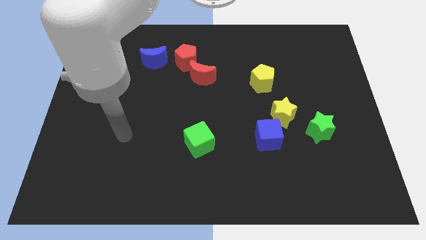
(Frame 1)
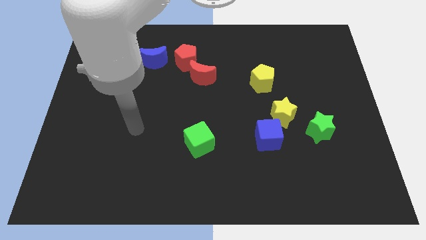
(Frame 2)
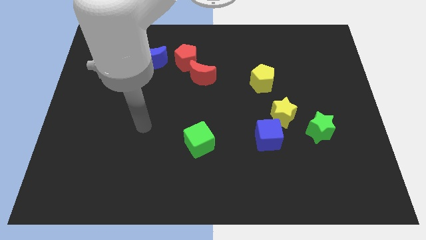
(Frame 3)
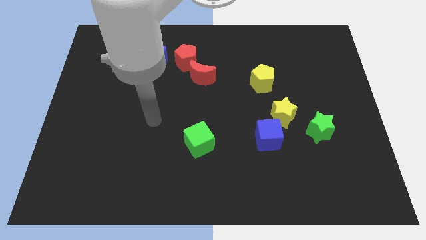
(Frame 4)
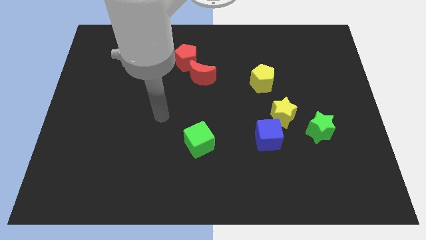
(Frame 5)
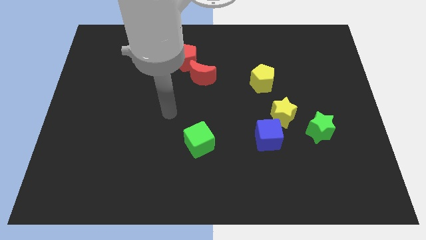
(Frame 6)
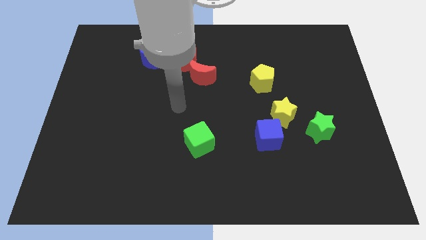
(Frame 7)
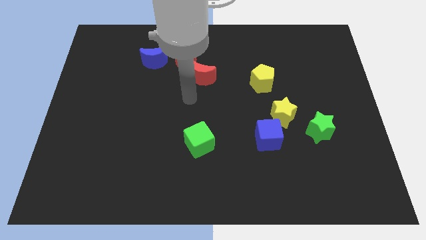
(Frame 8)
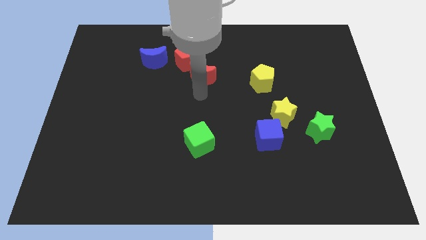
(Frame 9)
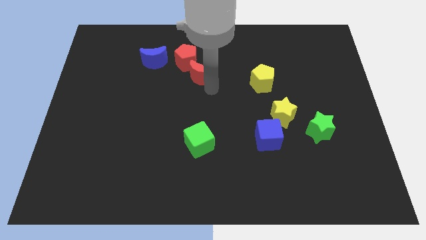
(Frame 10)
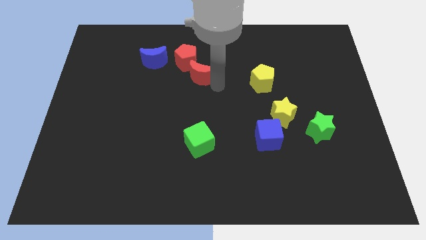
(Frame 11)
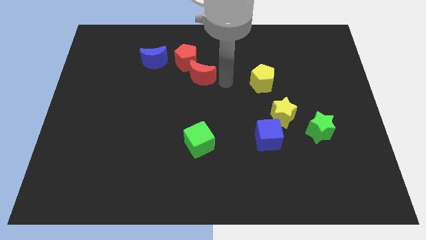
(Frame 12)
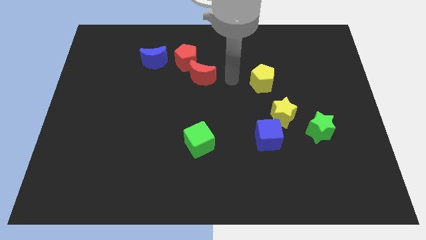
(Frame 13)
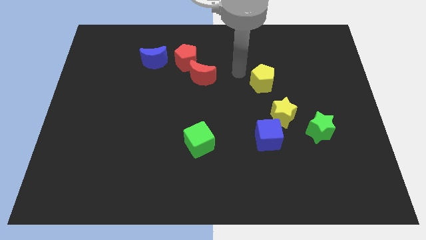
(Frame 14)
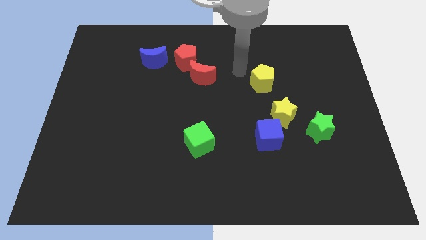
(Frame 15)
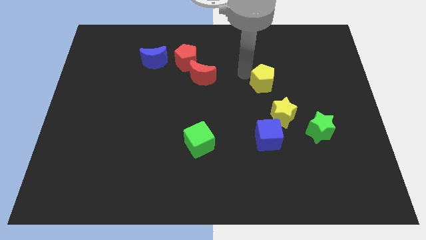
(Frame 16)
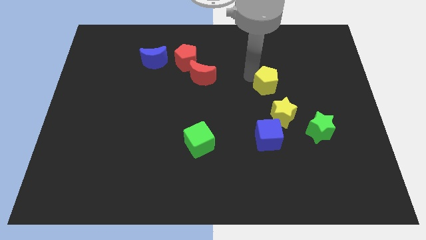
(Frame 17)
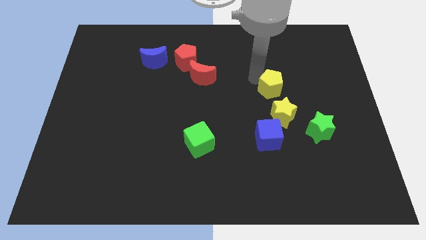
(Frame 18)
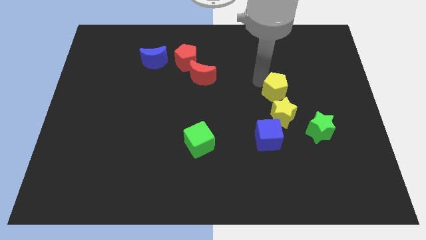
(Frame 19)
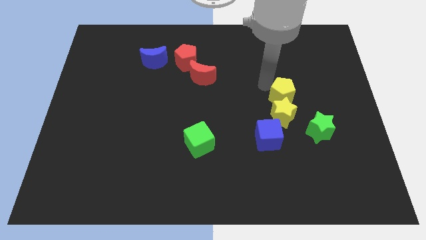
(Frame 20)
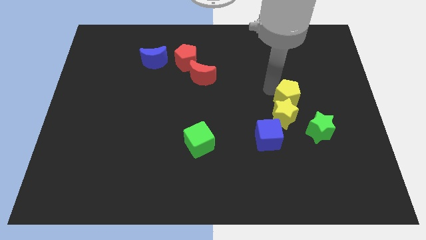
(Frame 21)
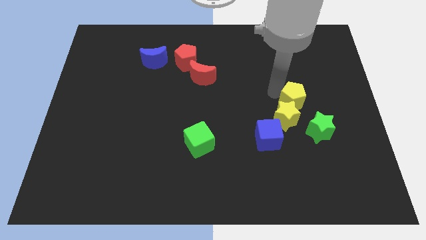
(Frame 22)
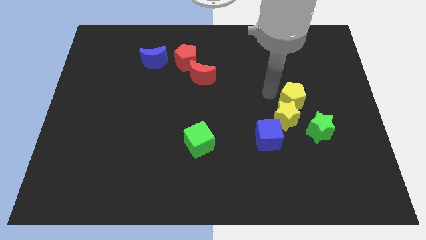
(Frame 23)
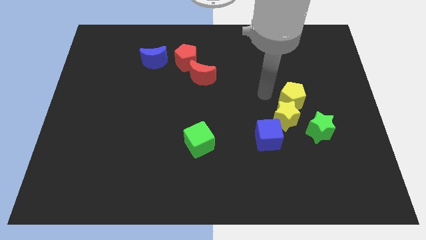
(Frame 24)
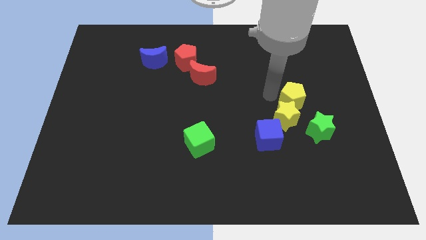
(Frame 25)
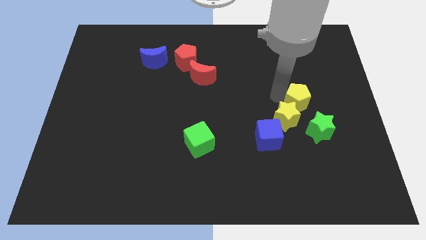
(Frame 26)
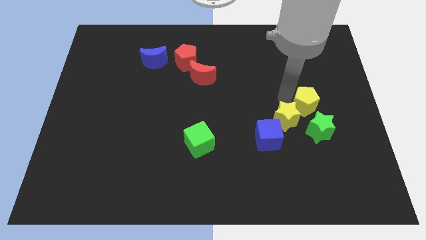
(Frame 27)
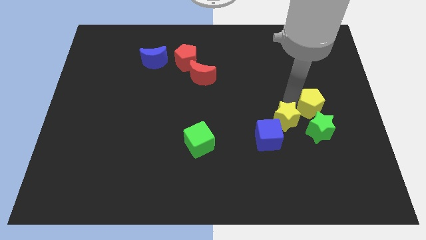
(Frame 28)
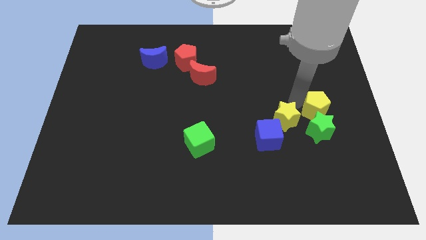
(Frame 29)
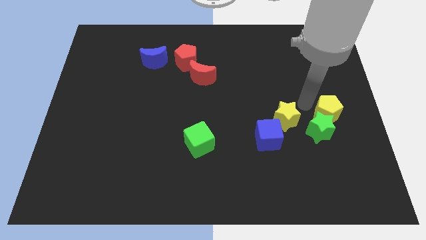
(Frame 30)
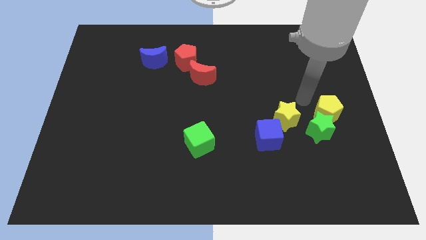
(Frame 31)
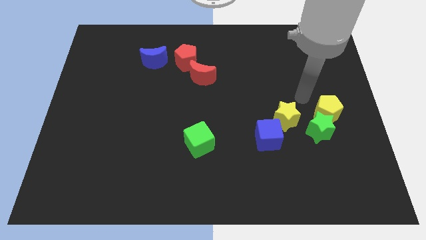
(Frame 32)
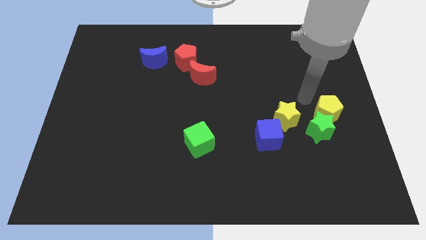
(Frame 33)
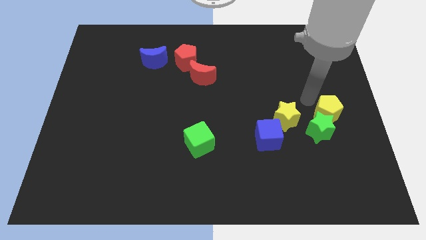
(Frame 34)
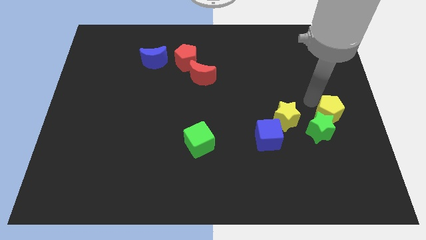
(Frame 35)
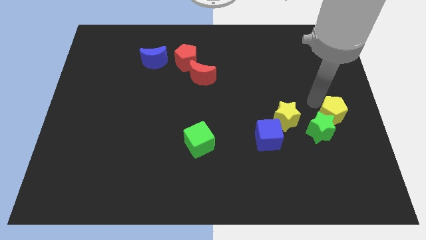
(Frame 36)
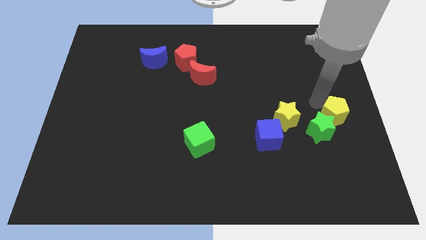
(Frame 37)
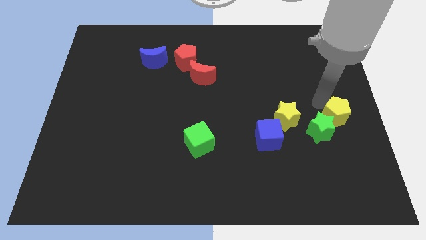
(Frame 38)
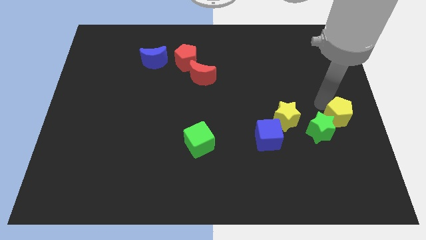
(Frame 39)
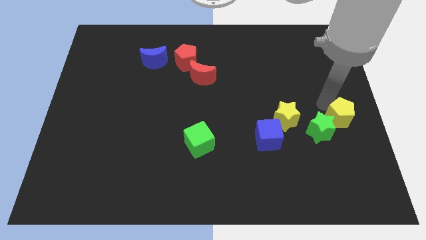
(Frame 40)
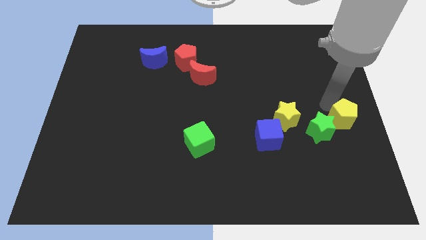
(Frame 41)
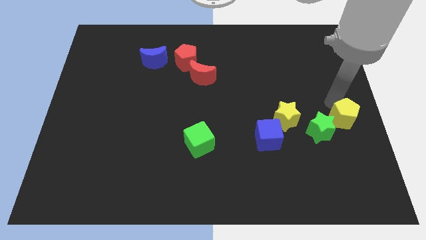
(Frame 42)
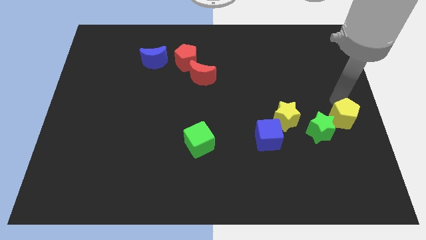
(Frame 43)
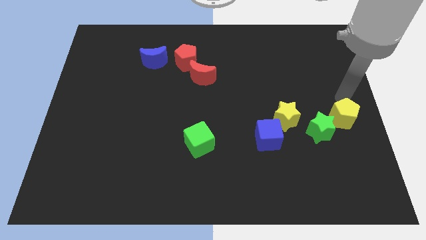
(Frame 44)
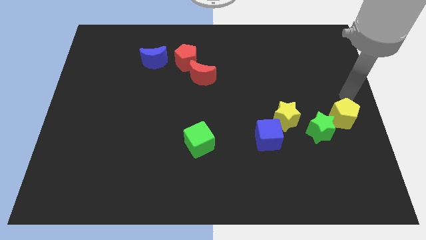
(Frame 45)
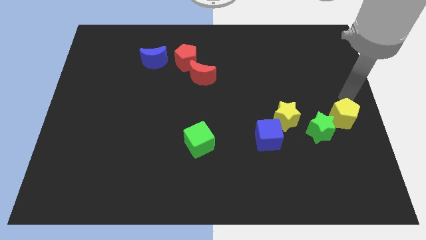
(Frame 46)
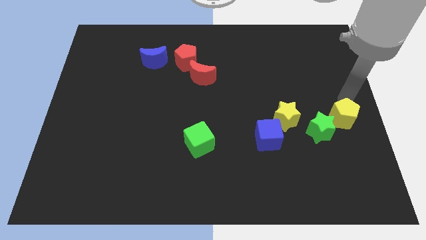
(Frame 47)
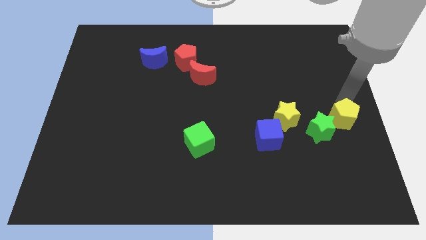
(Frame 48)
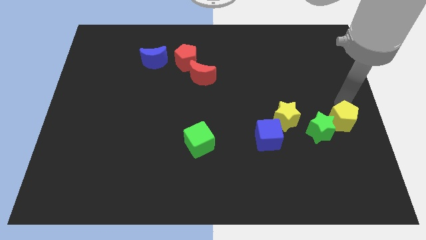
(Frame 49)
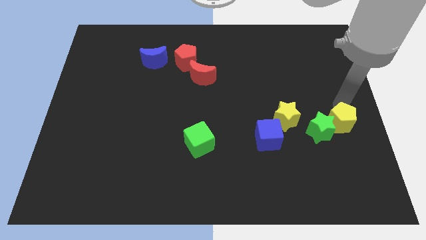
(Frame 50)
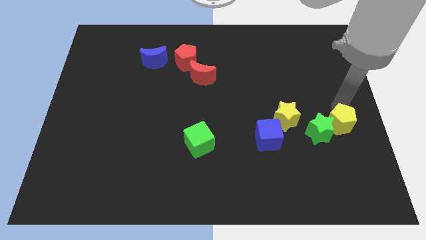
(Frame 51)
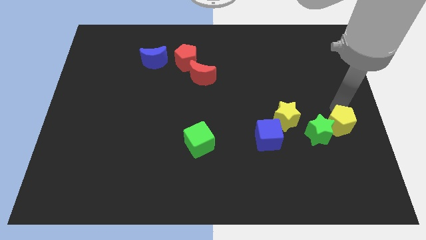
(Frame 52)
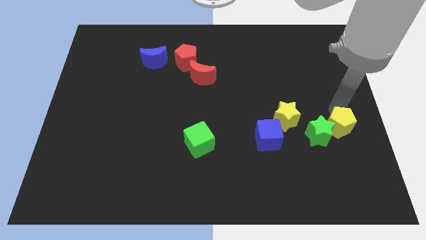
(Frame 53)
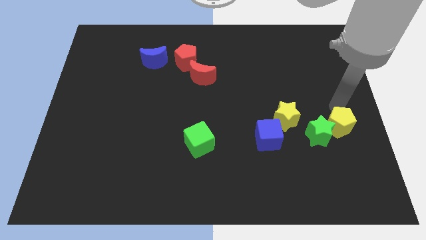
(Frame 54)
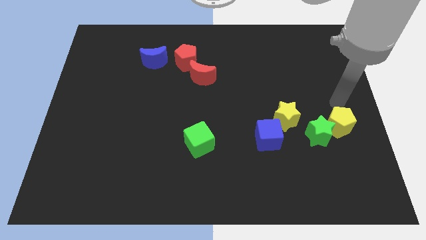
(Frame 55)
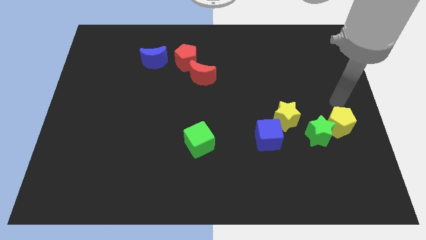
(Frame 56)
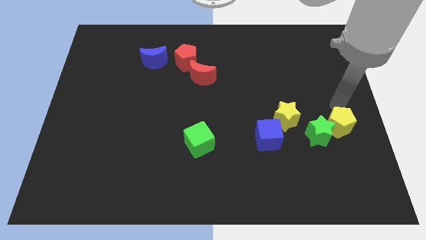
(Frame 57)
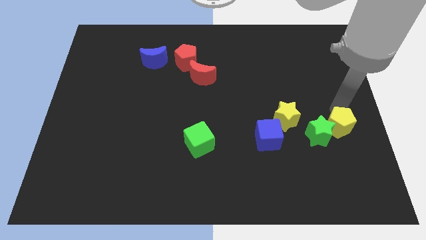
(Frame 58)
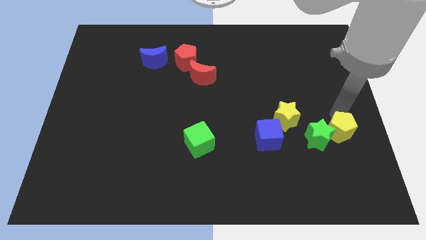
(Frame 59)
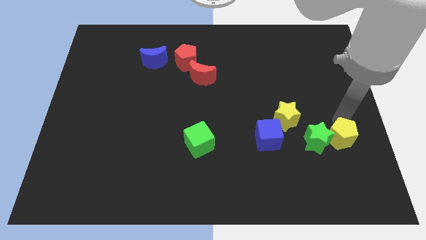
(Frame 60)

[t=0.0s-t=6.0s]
push the yellow pentagon to the right of the blue cube
